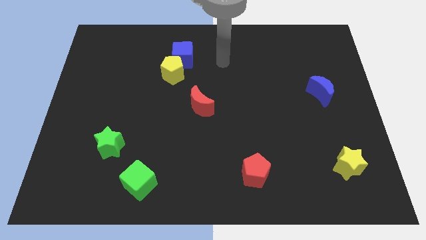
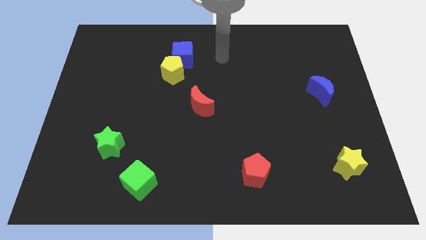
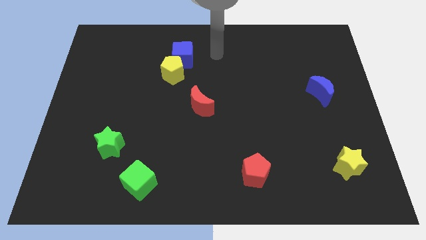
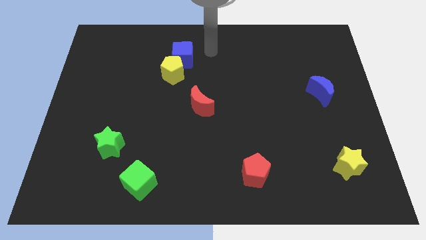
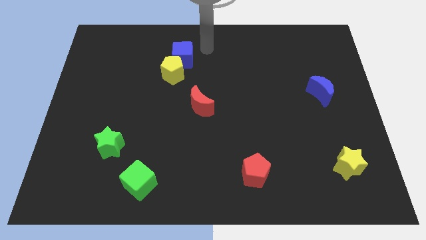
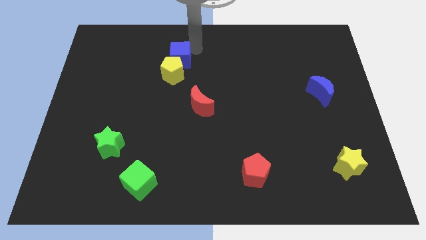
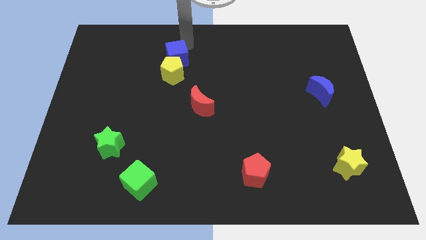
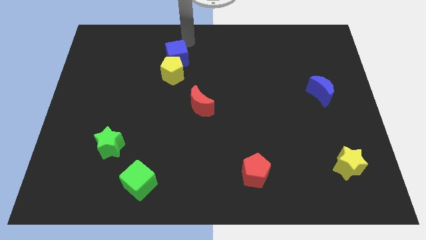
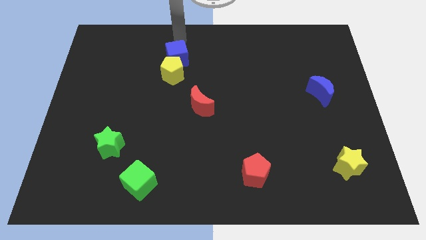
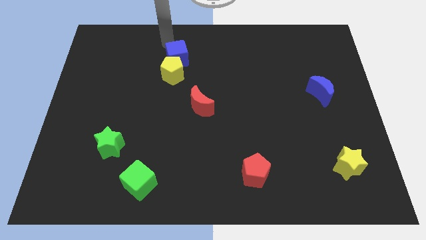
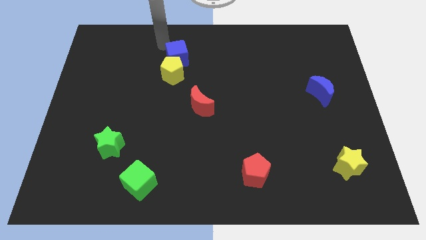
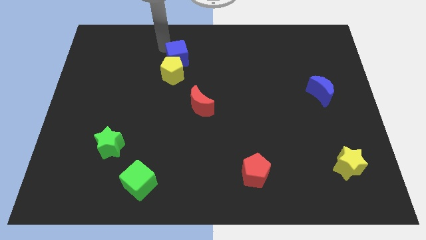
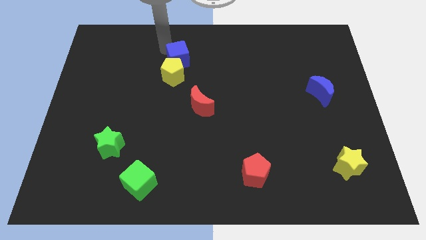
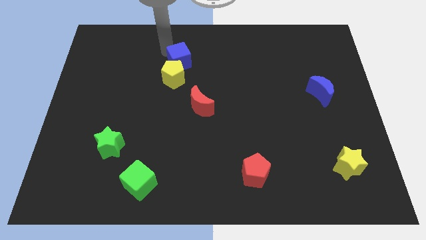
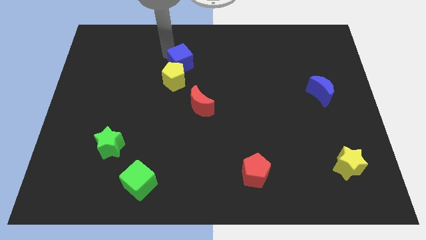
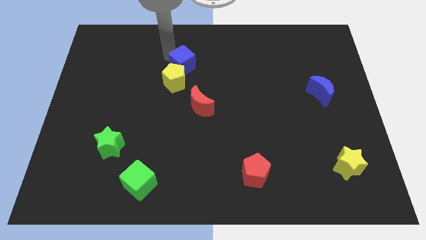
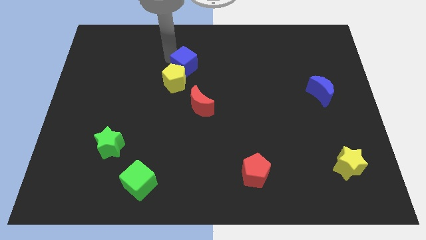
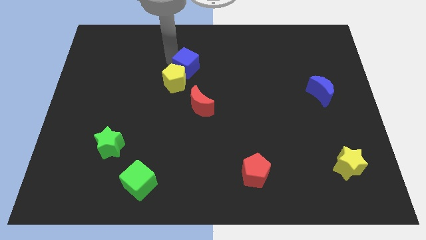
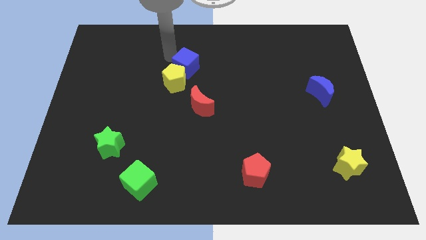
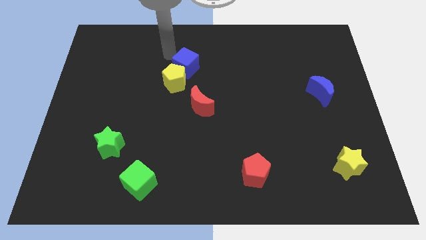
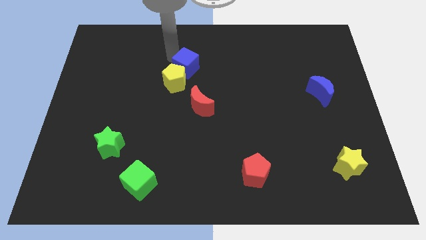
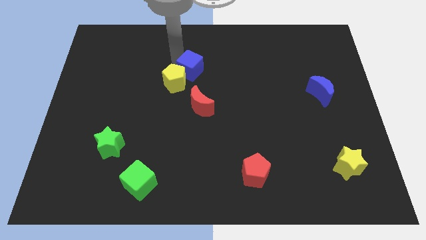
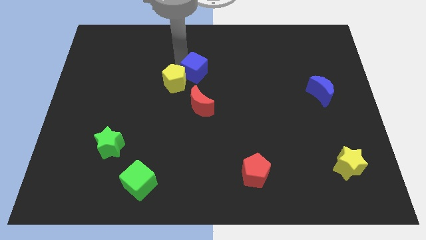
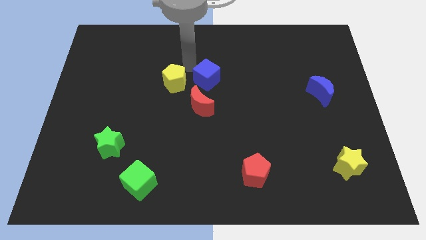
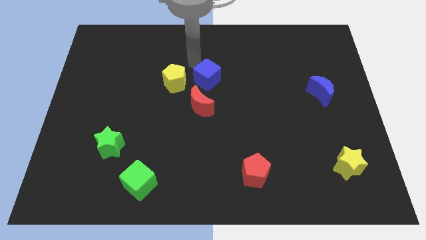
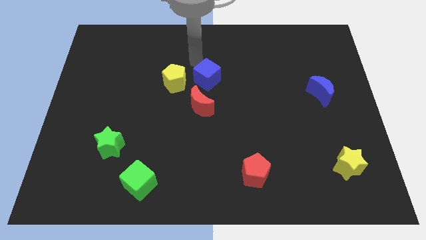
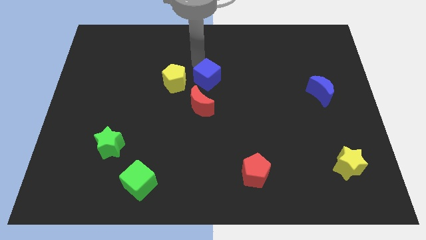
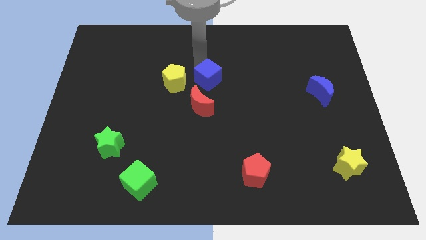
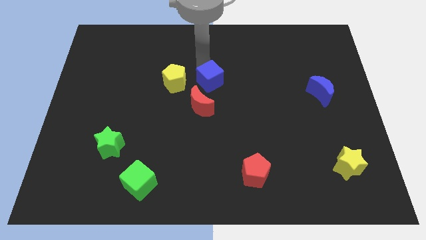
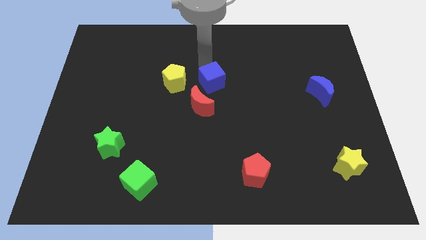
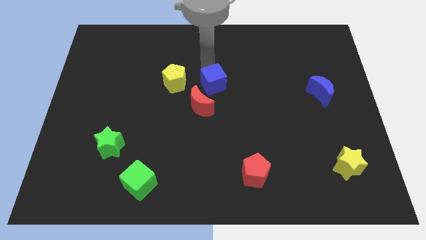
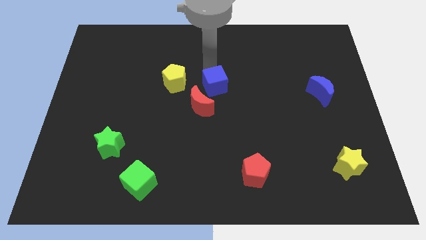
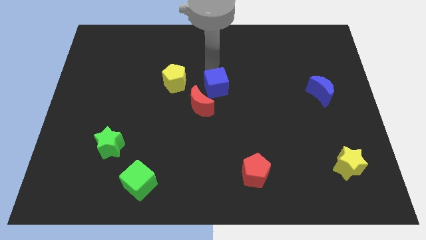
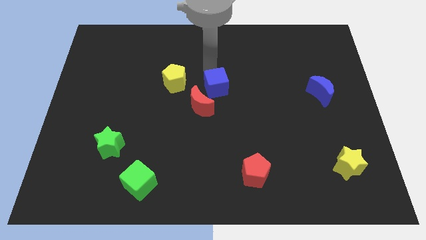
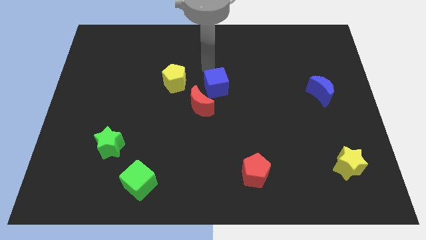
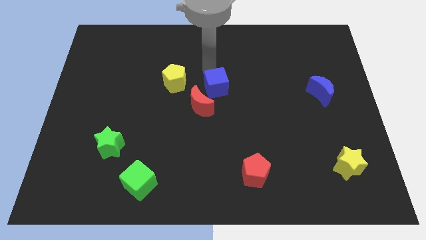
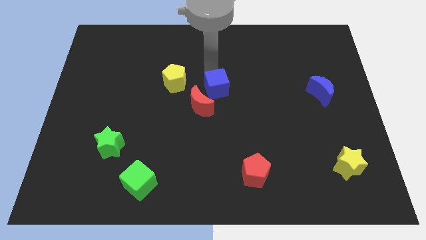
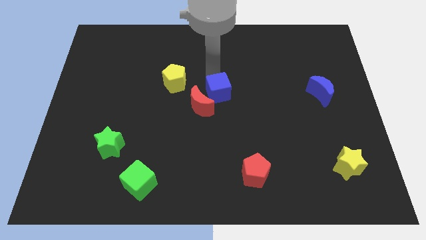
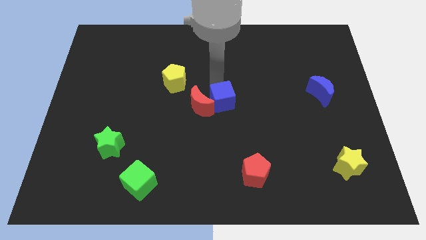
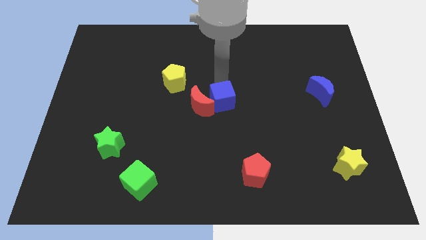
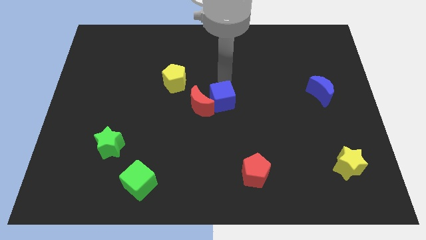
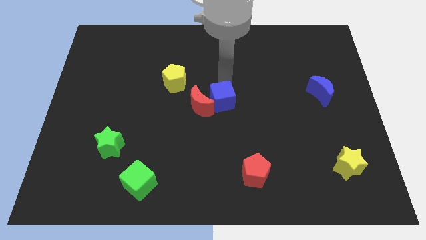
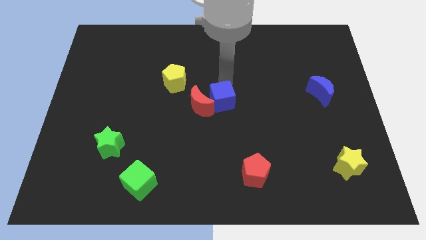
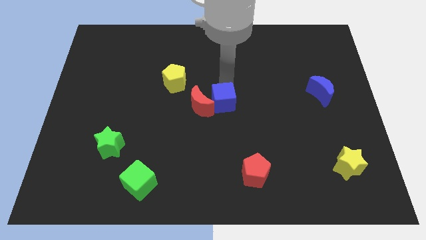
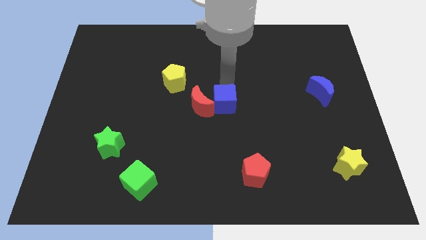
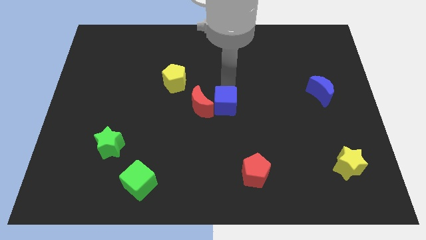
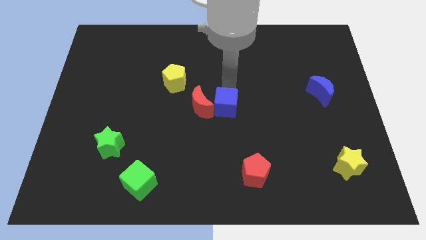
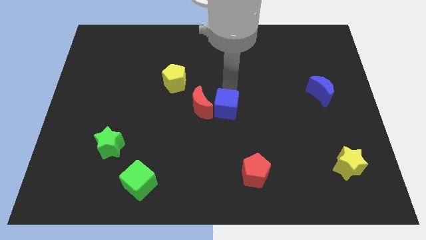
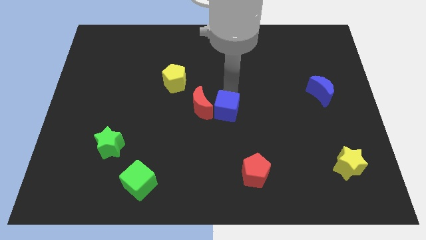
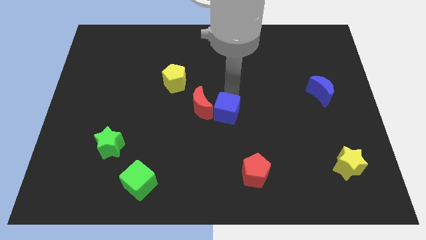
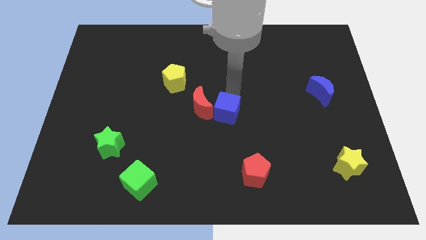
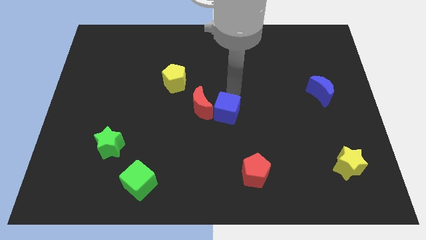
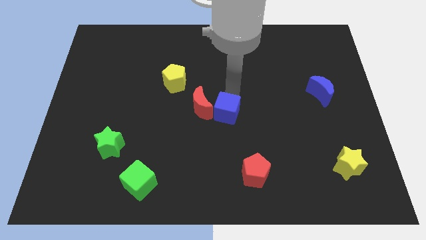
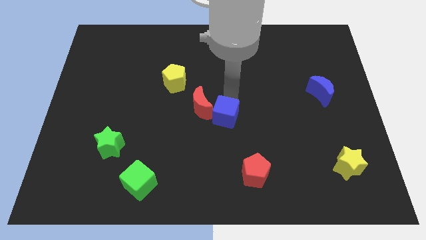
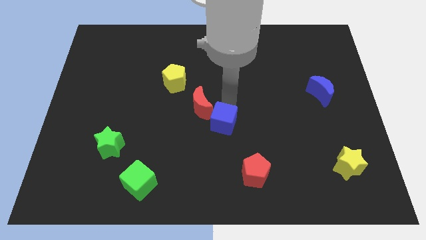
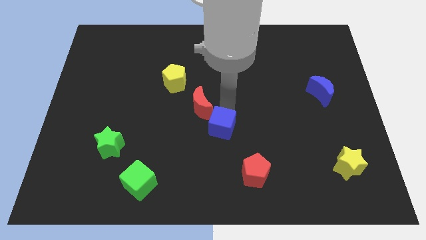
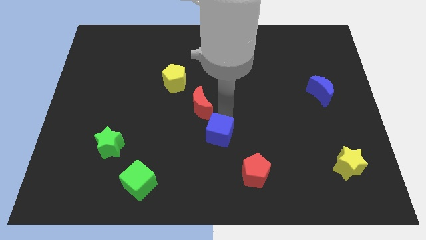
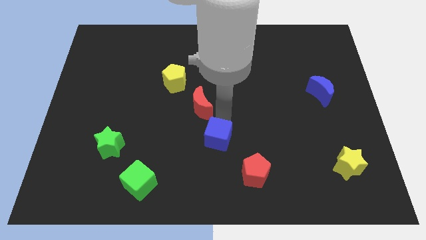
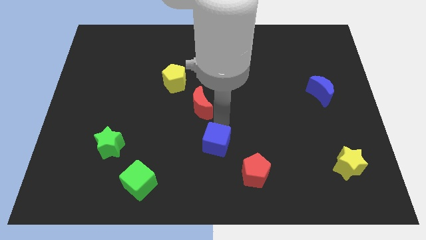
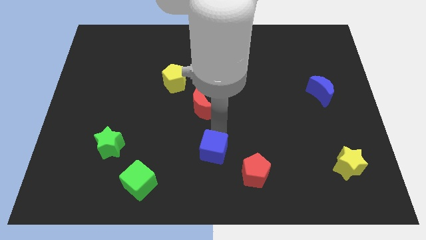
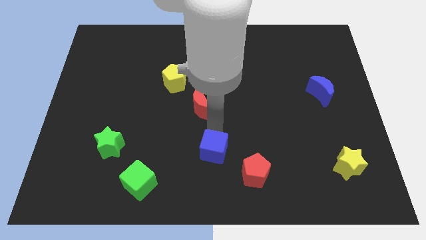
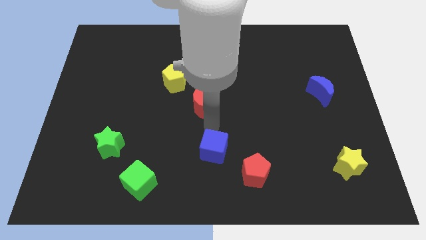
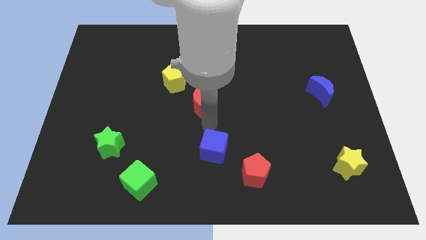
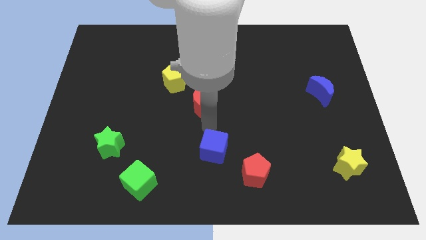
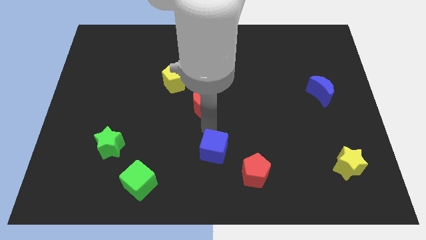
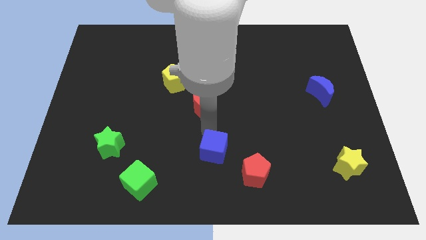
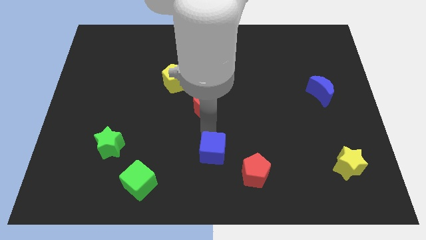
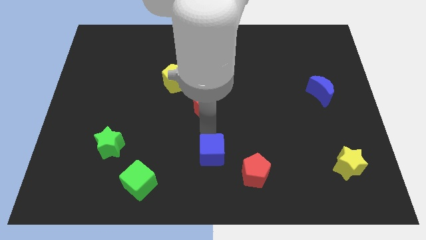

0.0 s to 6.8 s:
put the blue cube to the bottom side
